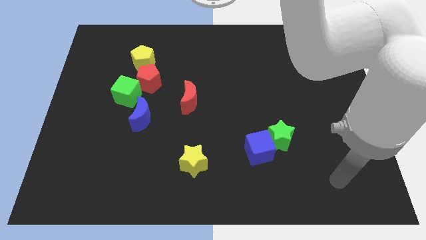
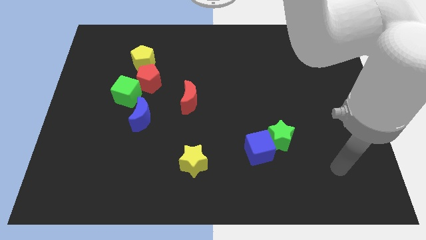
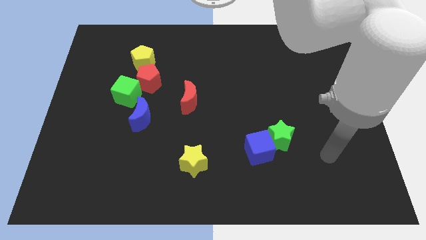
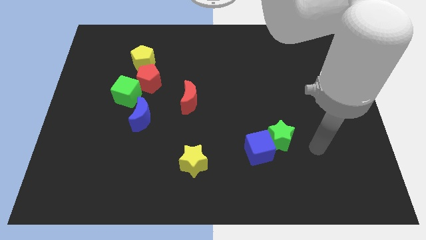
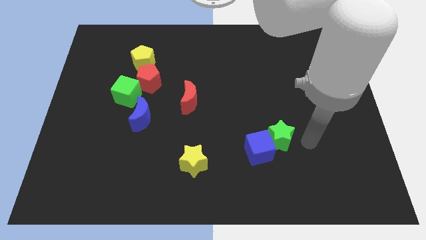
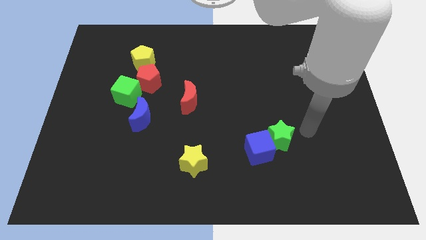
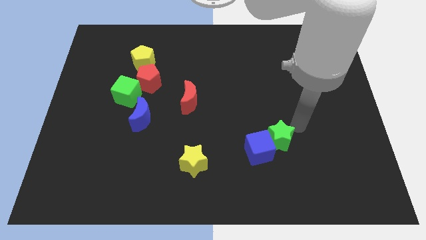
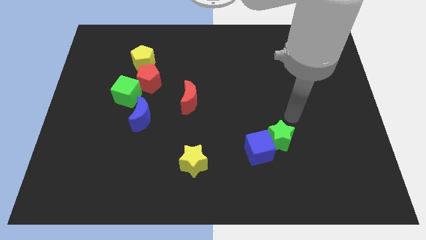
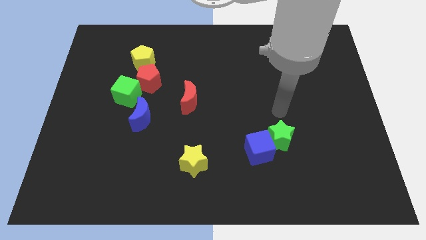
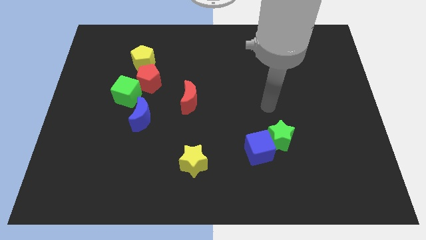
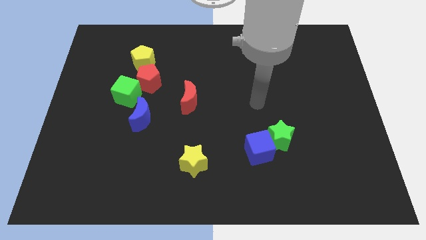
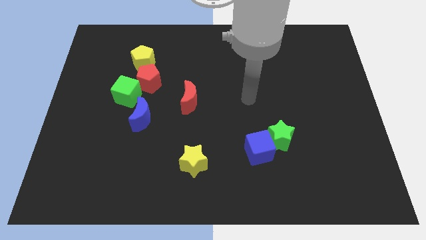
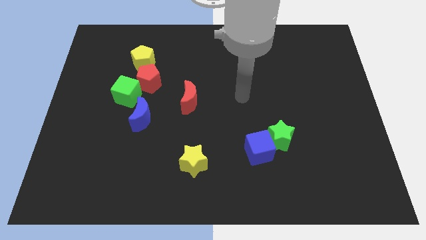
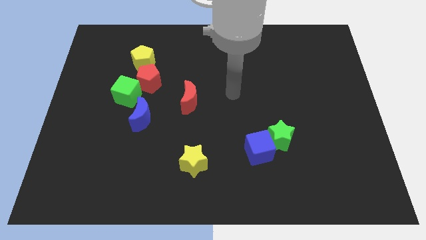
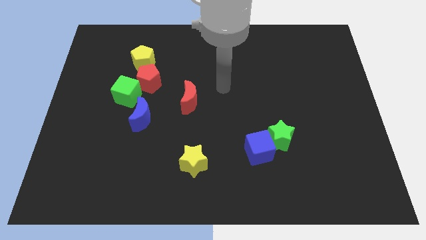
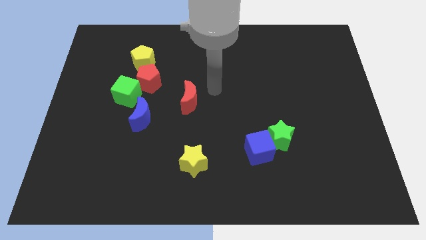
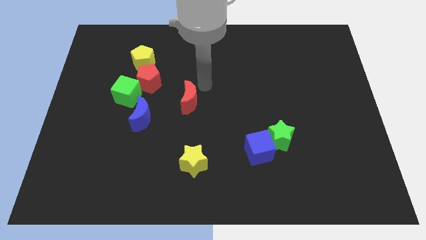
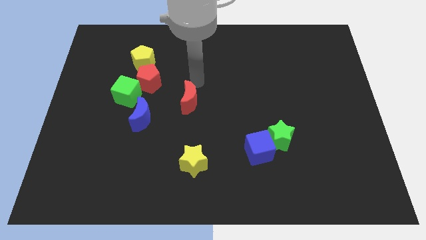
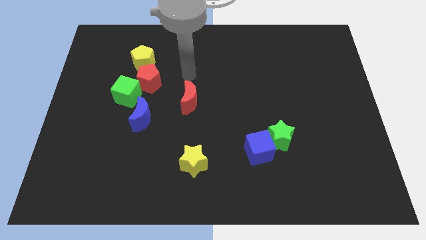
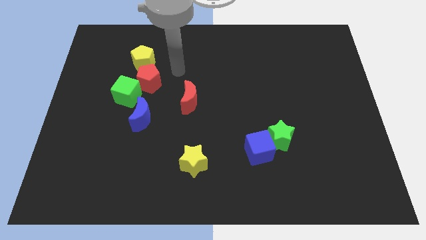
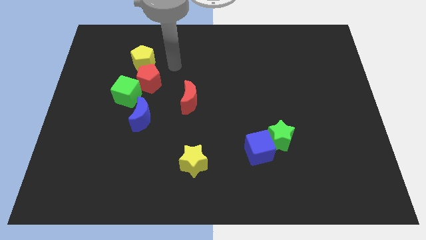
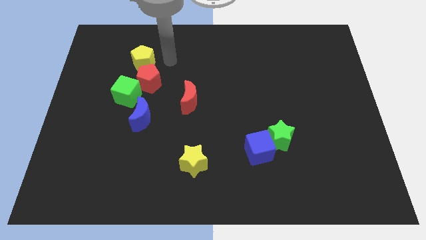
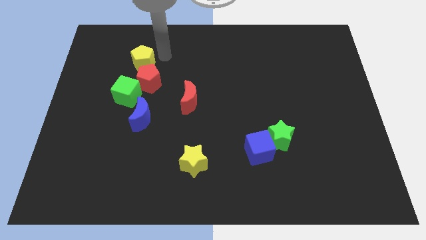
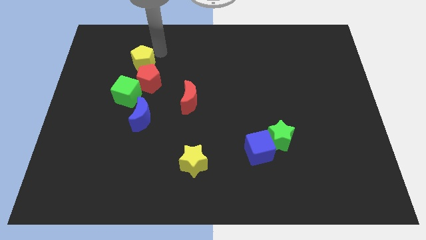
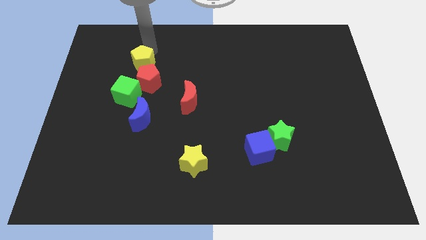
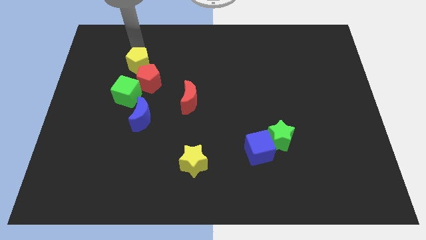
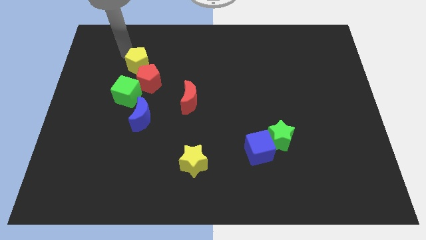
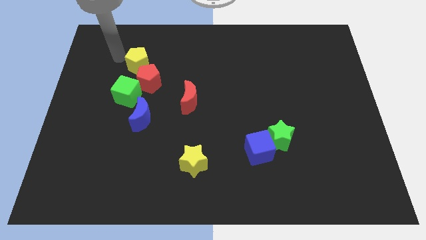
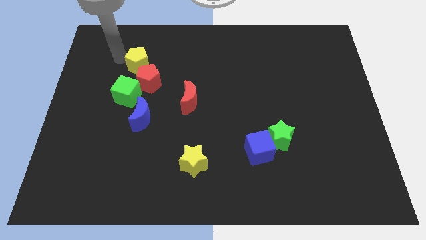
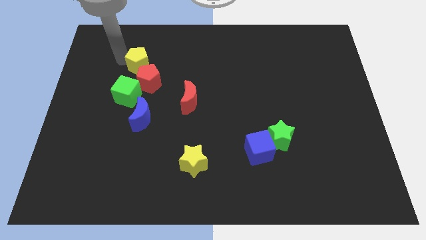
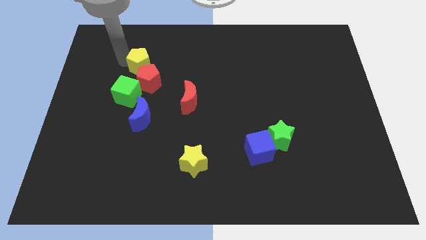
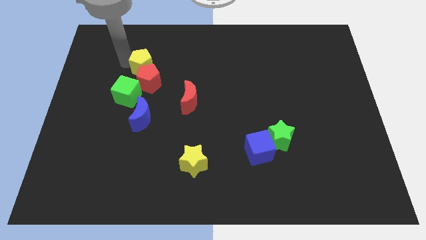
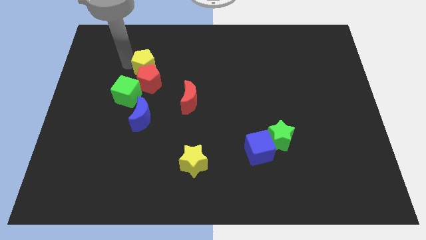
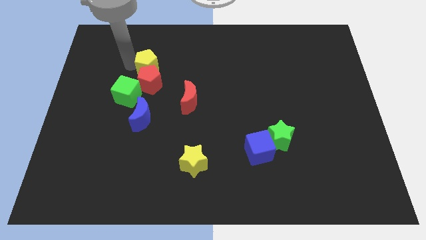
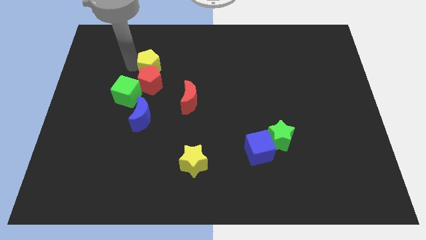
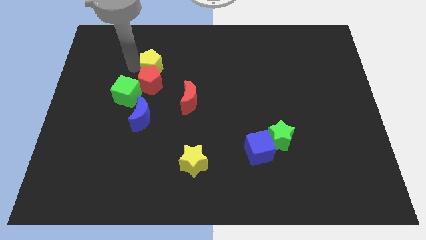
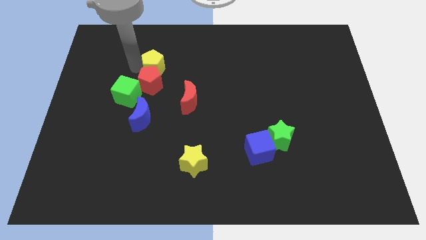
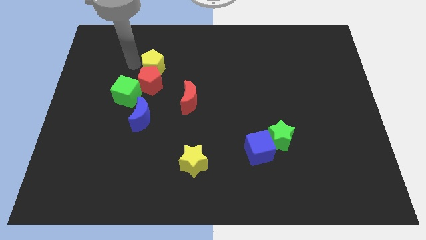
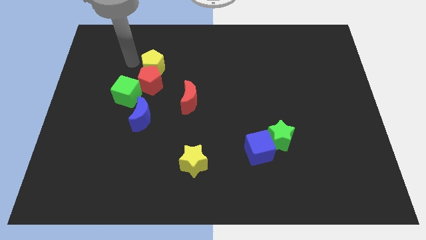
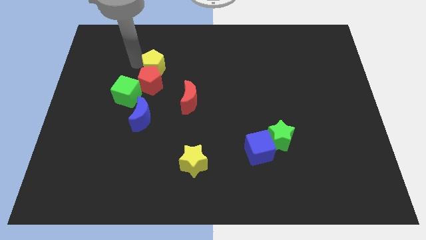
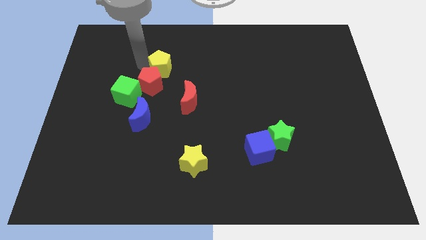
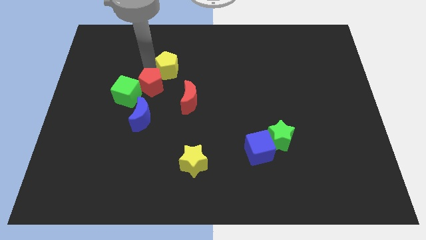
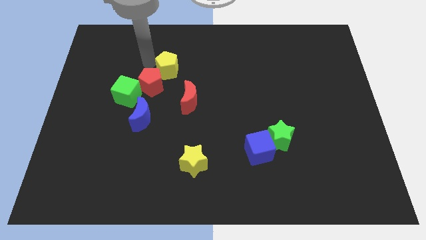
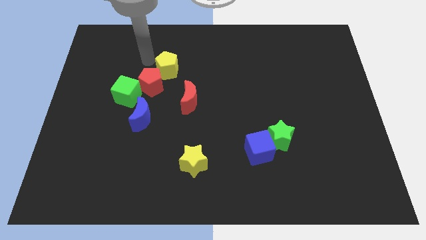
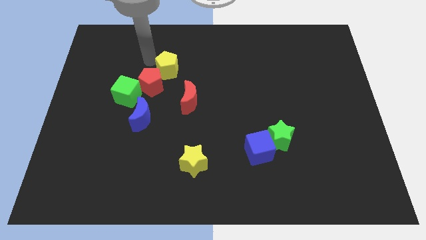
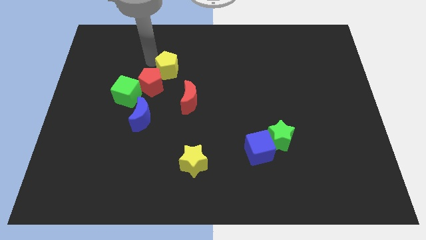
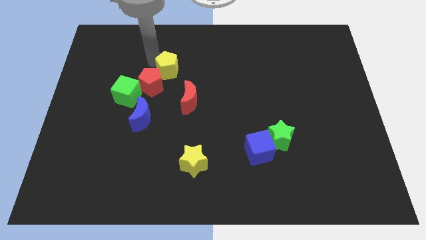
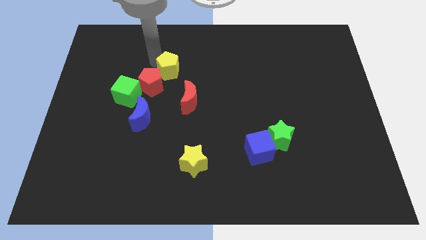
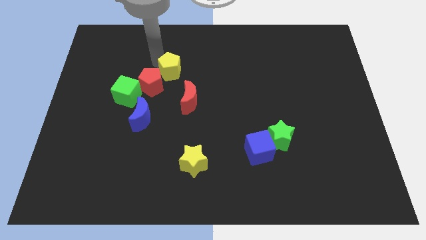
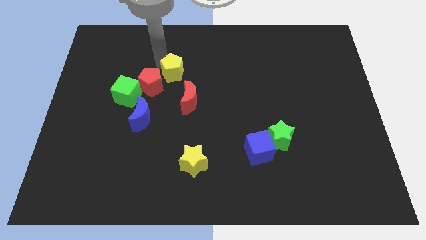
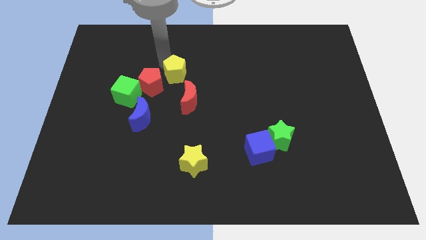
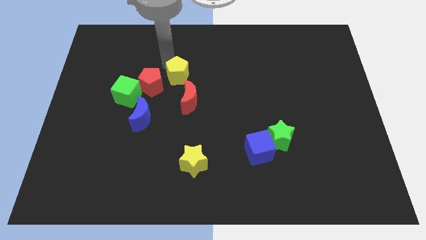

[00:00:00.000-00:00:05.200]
move the yellow pentagon to the center

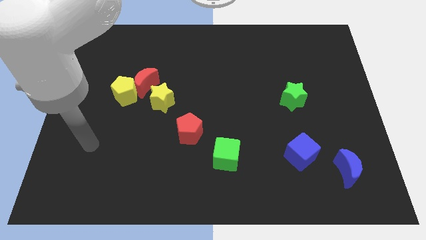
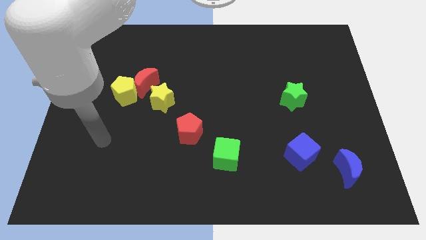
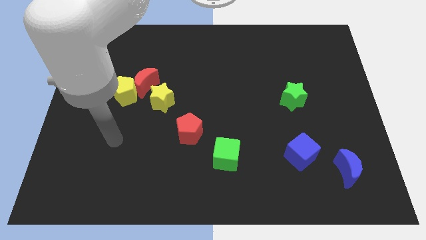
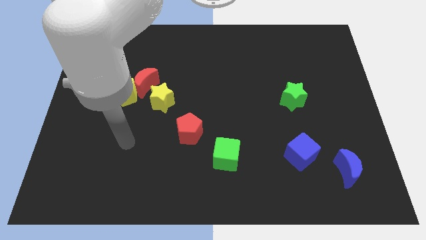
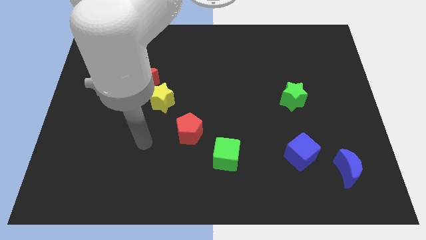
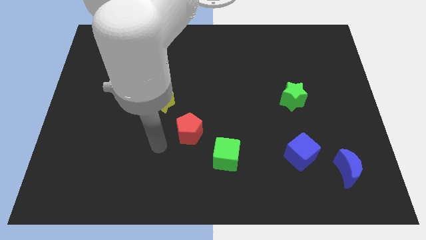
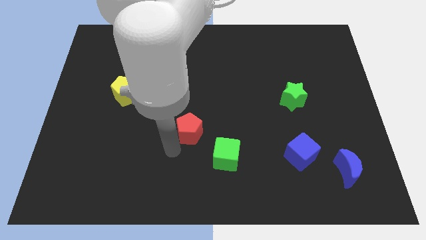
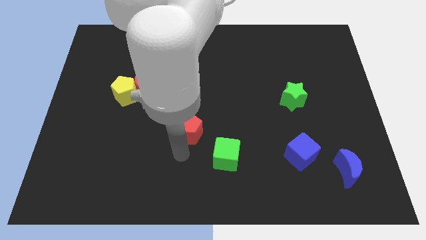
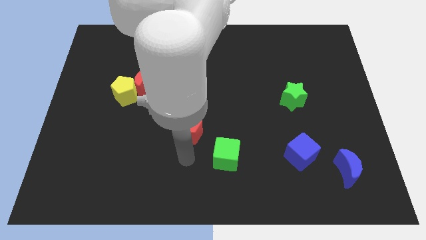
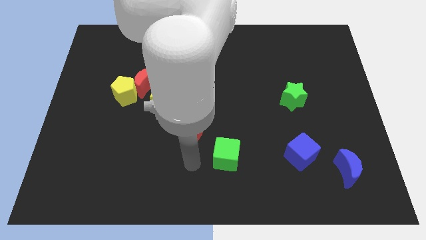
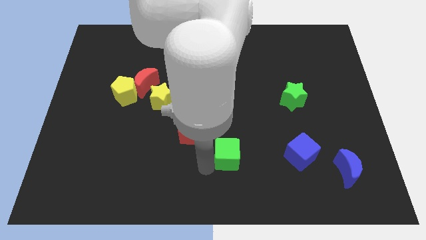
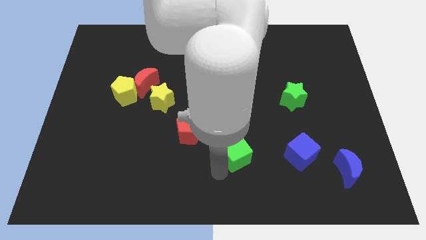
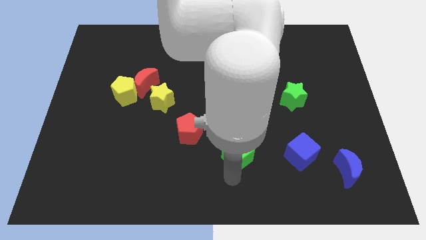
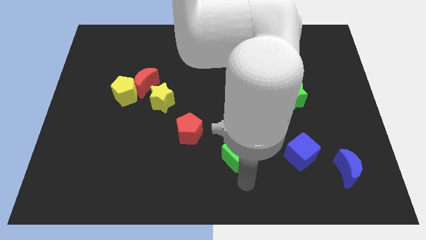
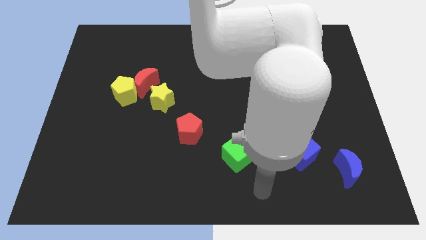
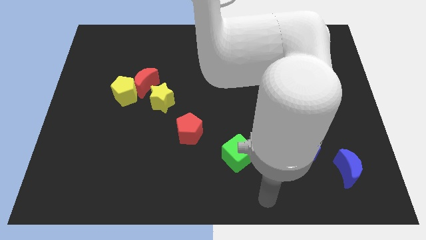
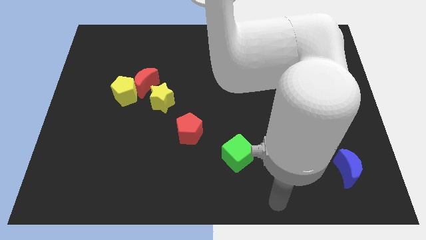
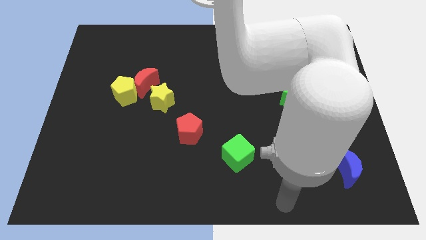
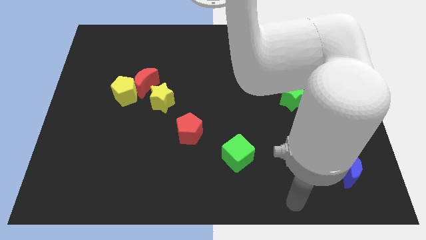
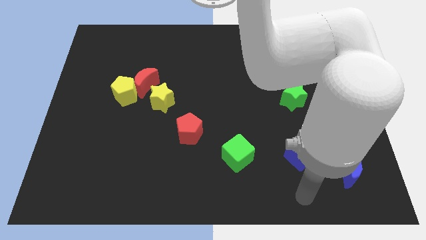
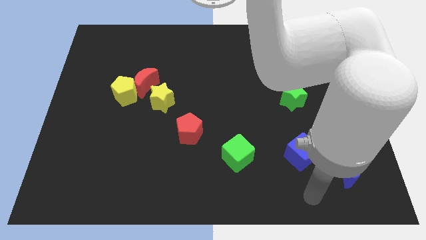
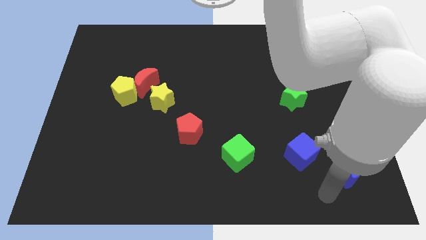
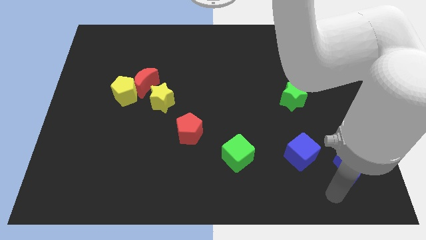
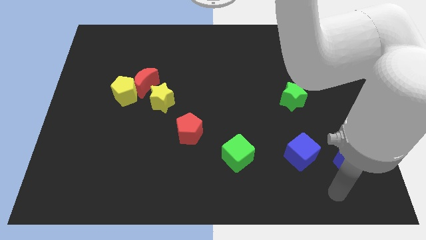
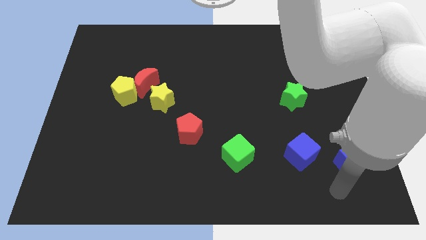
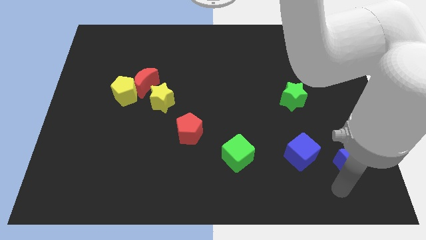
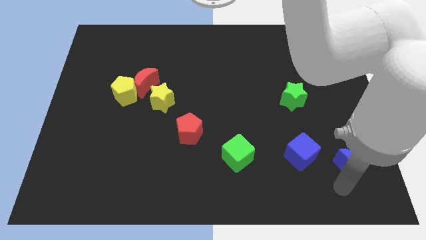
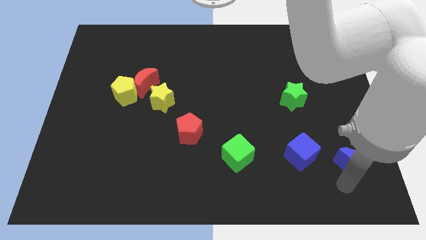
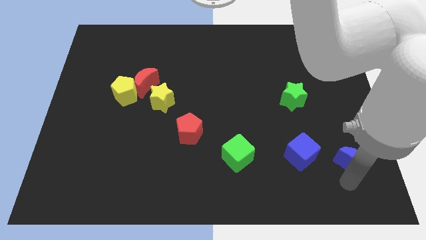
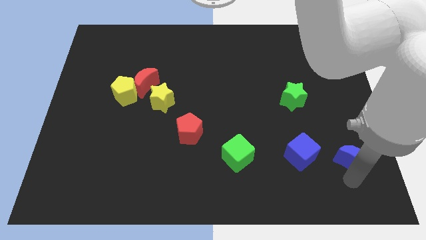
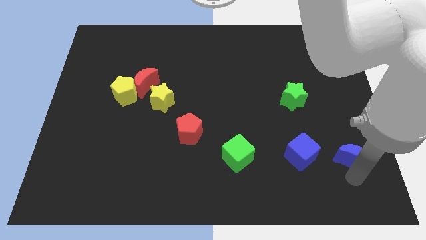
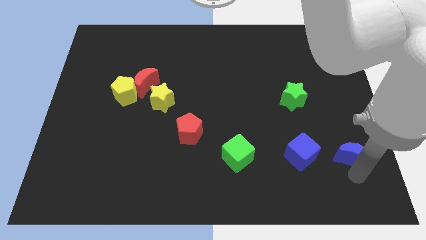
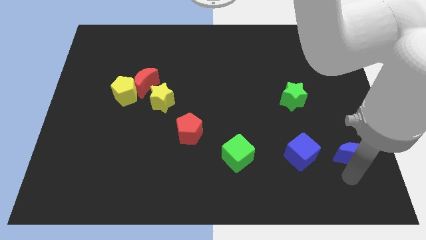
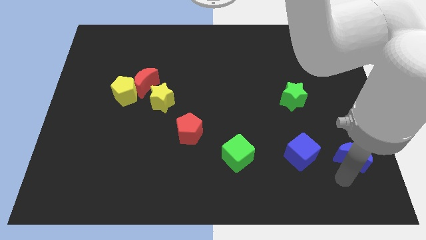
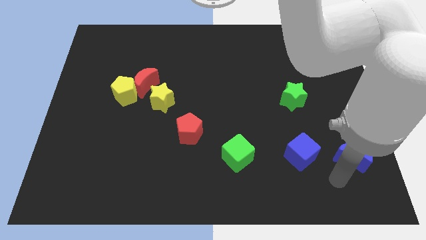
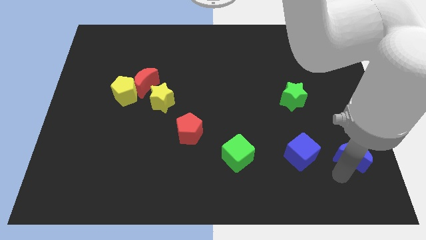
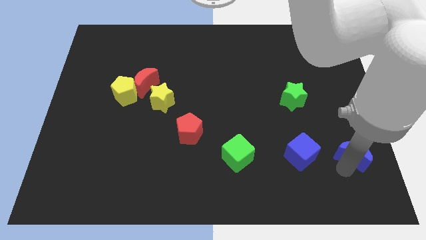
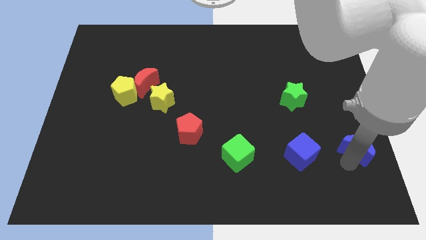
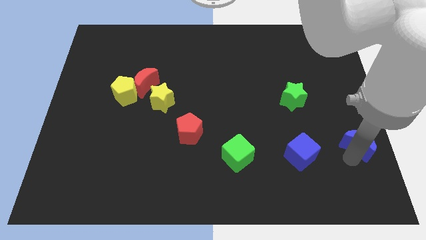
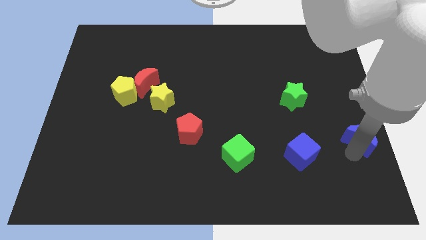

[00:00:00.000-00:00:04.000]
put the blue moon to the right side of the board
